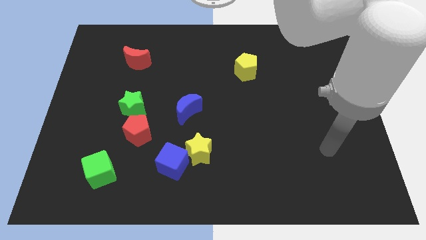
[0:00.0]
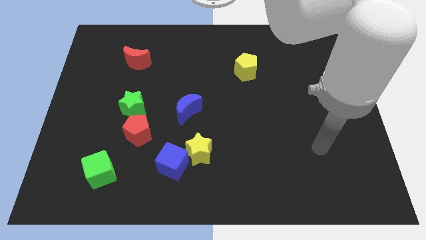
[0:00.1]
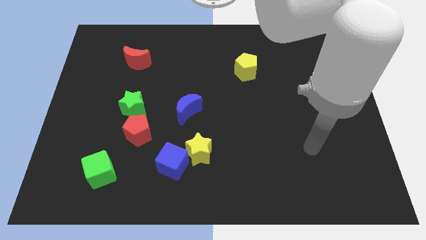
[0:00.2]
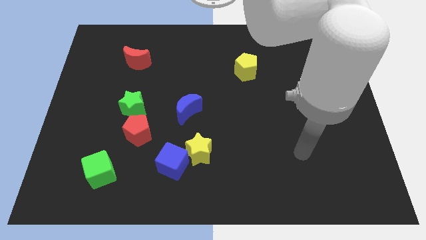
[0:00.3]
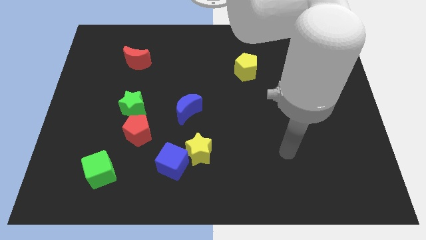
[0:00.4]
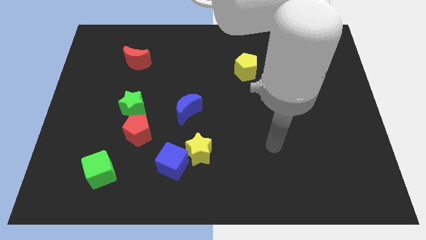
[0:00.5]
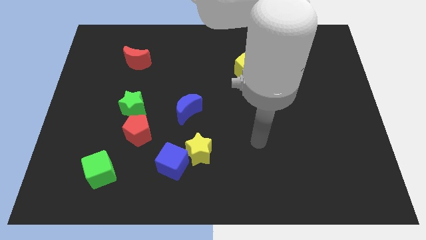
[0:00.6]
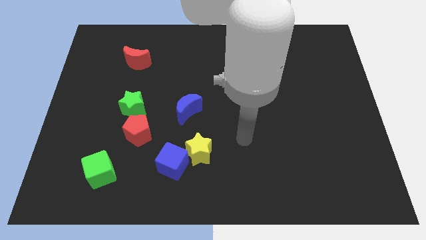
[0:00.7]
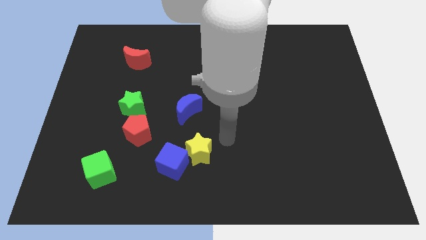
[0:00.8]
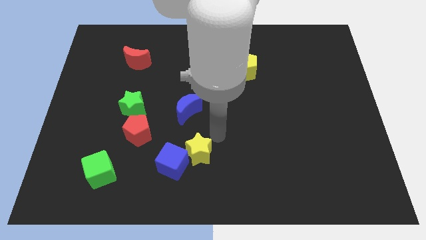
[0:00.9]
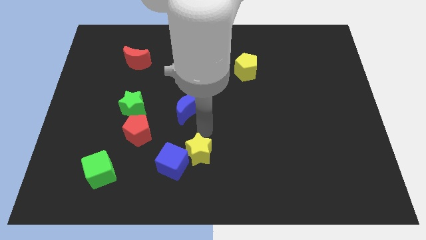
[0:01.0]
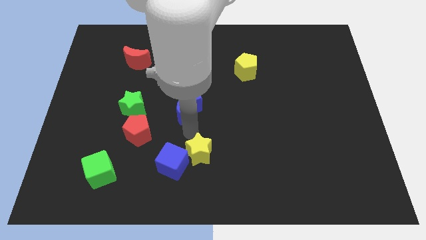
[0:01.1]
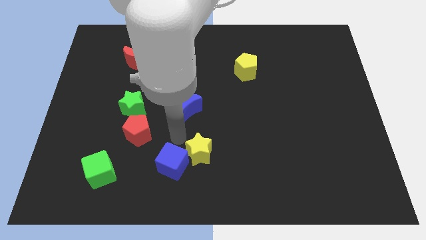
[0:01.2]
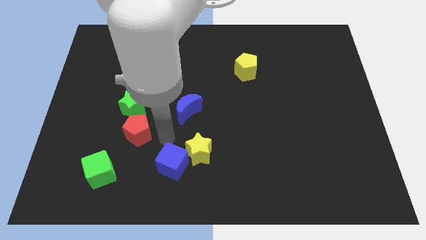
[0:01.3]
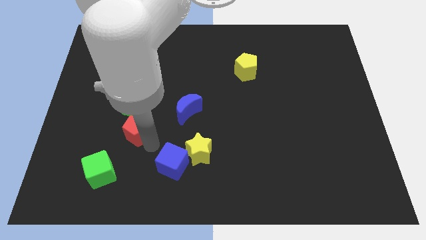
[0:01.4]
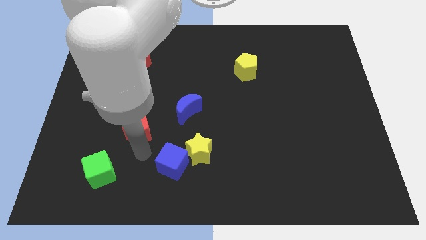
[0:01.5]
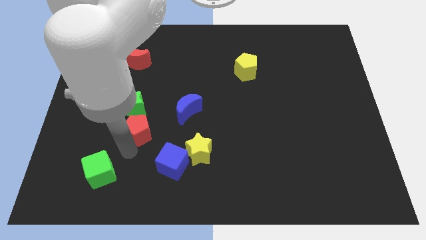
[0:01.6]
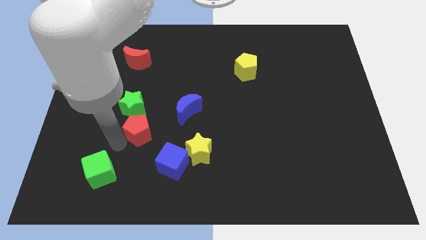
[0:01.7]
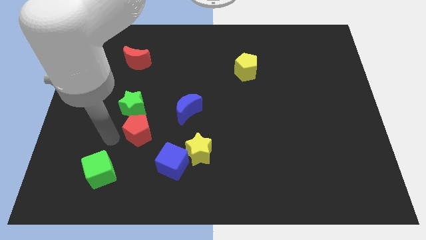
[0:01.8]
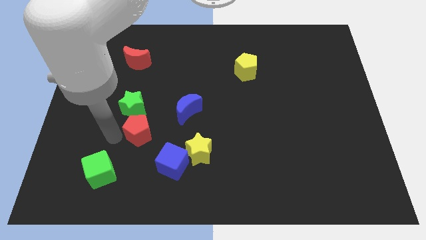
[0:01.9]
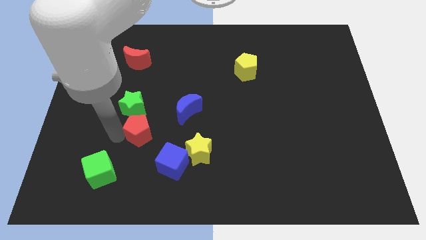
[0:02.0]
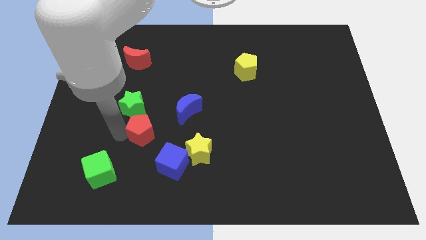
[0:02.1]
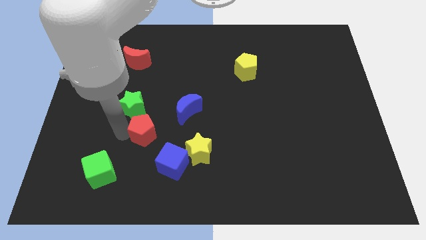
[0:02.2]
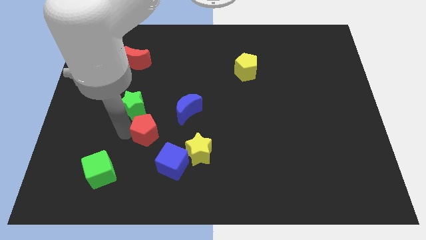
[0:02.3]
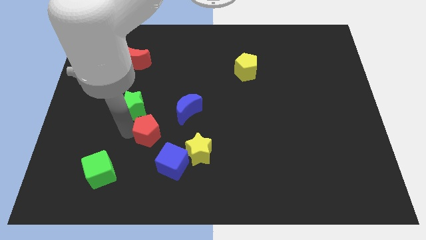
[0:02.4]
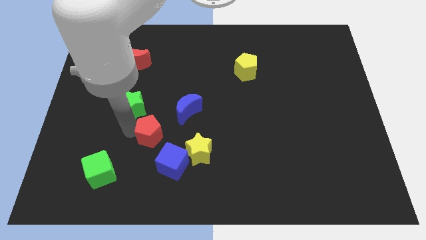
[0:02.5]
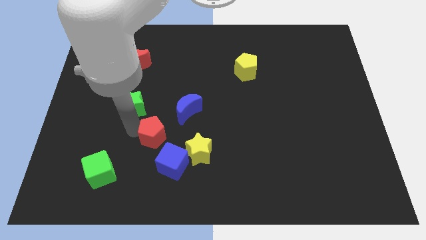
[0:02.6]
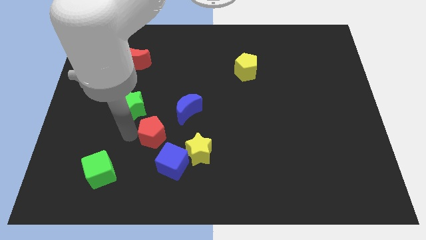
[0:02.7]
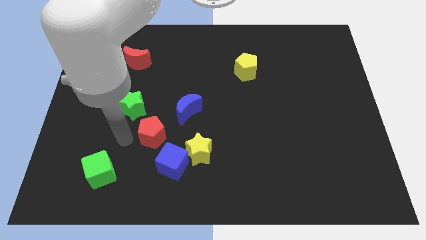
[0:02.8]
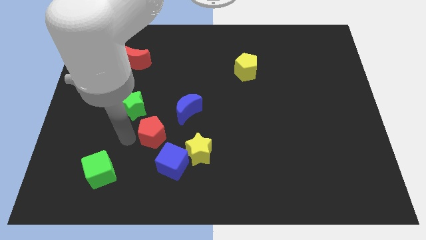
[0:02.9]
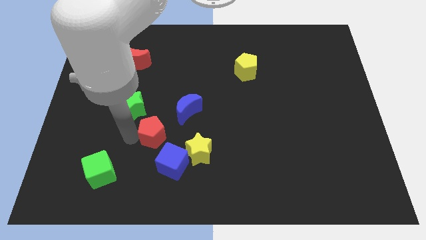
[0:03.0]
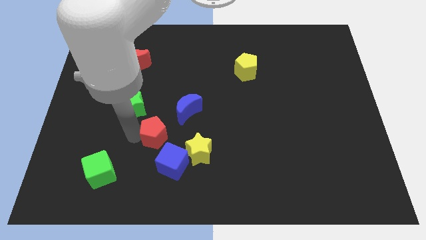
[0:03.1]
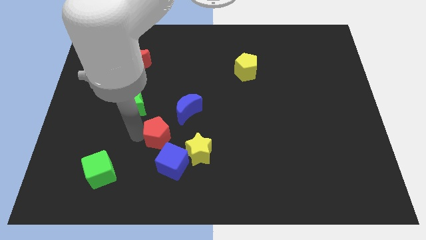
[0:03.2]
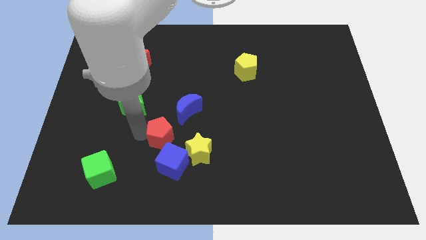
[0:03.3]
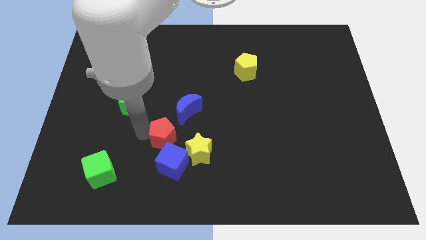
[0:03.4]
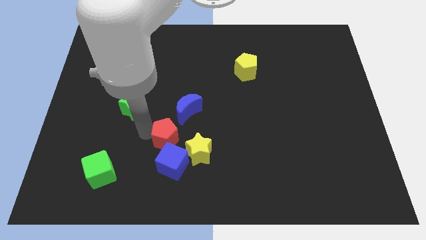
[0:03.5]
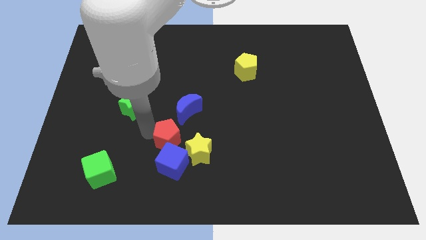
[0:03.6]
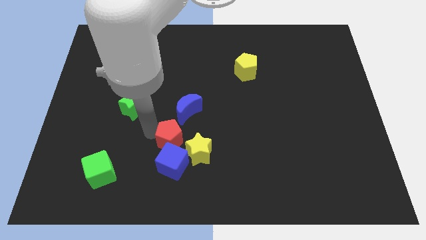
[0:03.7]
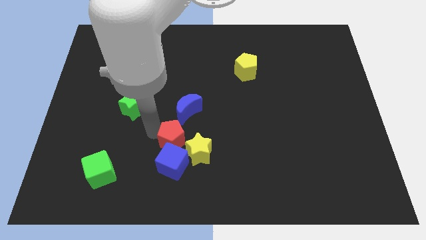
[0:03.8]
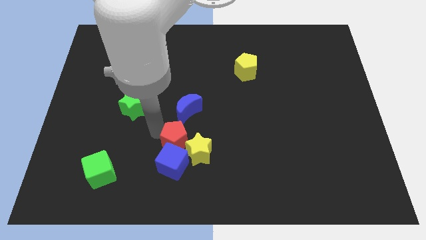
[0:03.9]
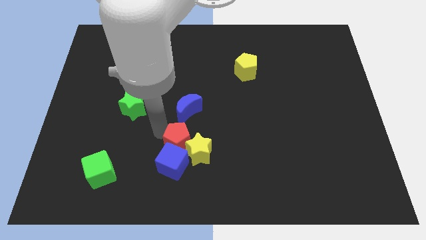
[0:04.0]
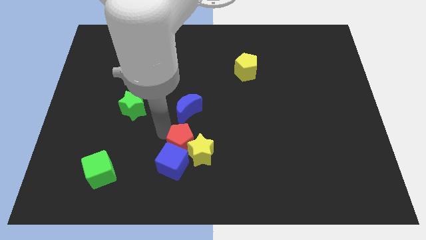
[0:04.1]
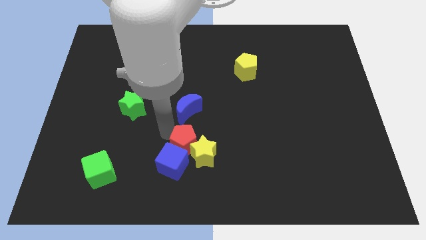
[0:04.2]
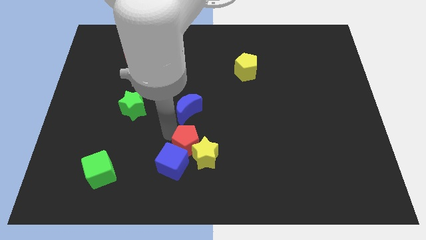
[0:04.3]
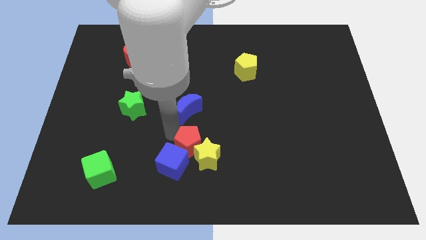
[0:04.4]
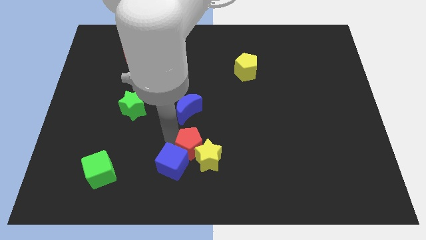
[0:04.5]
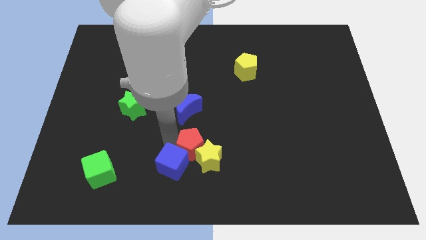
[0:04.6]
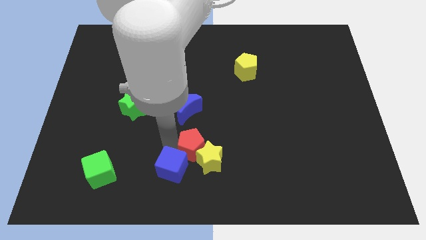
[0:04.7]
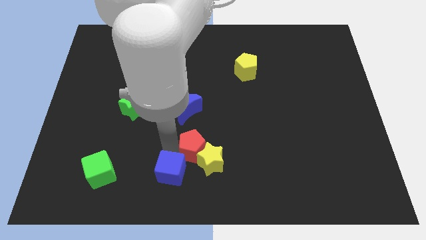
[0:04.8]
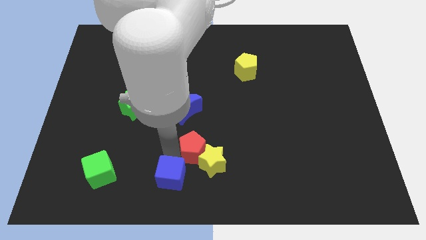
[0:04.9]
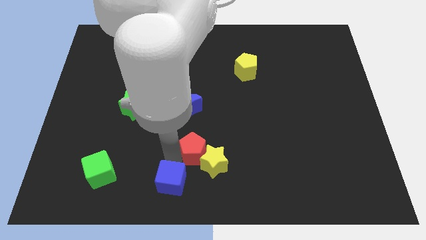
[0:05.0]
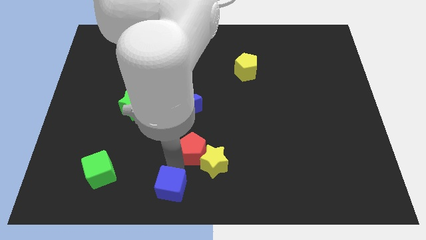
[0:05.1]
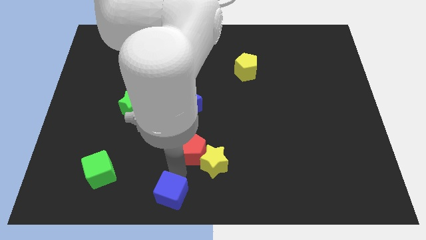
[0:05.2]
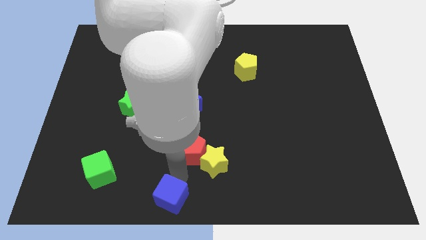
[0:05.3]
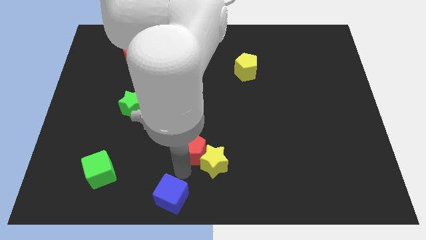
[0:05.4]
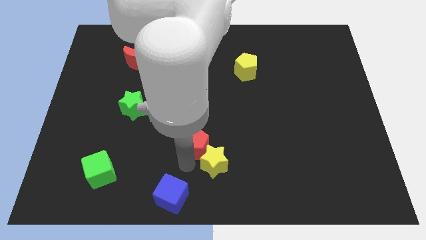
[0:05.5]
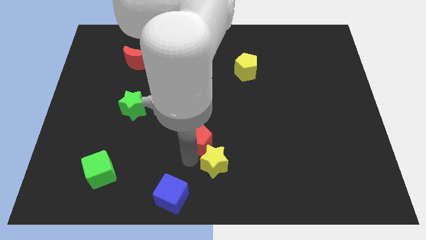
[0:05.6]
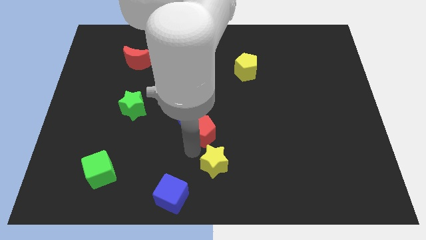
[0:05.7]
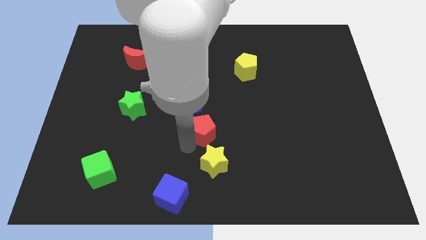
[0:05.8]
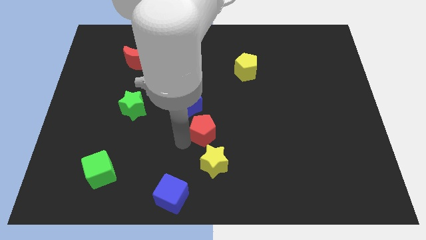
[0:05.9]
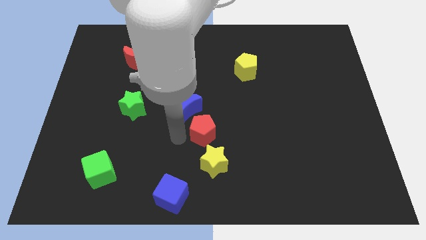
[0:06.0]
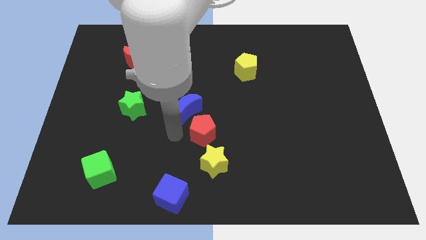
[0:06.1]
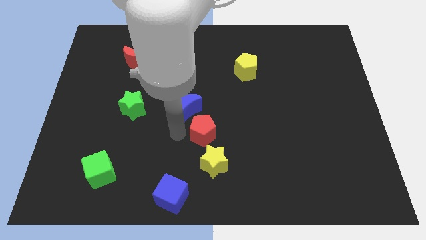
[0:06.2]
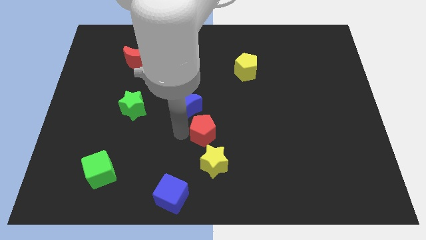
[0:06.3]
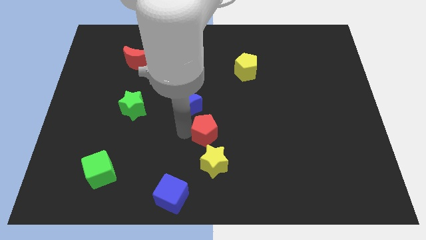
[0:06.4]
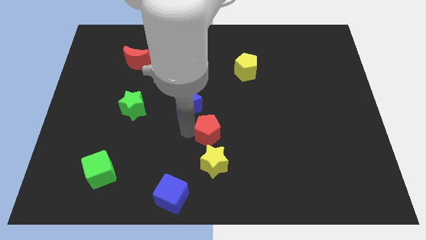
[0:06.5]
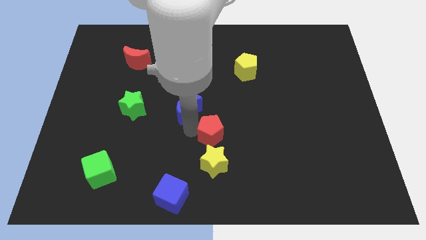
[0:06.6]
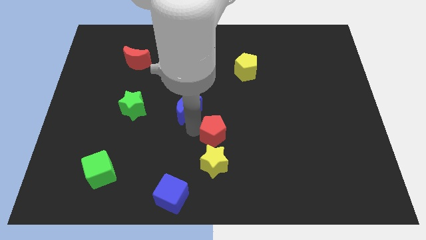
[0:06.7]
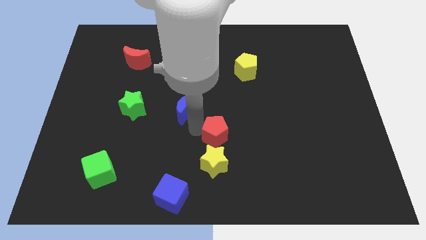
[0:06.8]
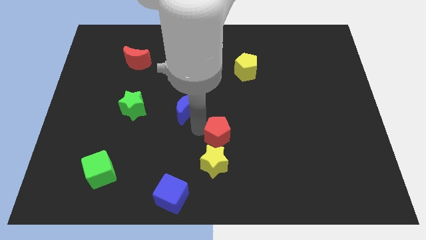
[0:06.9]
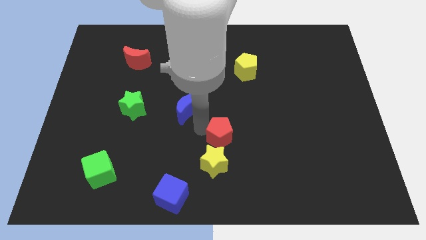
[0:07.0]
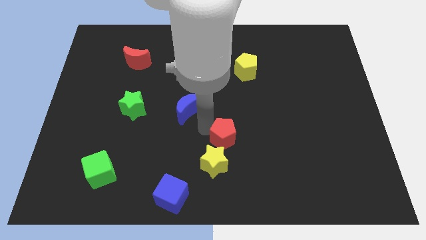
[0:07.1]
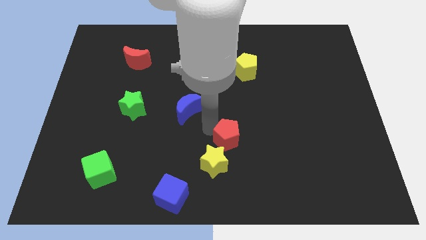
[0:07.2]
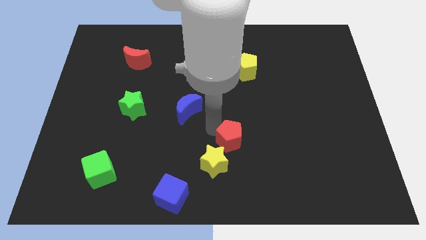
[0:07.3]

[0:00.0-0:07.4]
slide the red pentagon right

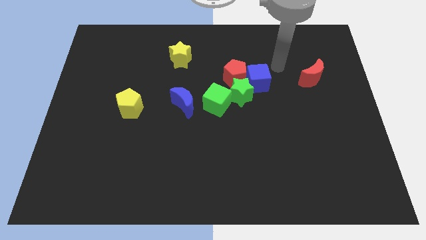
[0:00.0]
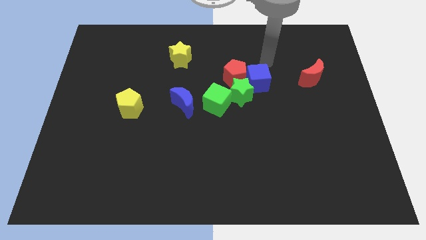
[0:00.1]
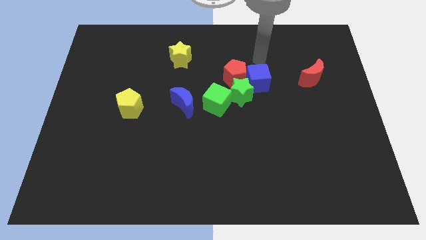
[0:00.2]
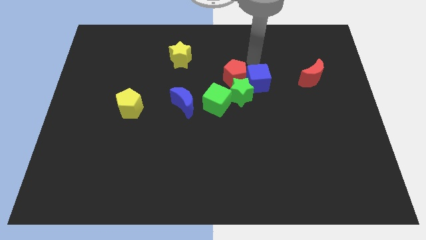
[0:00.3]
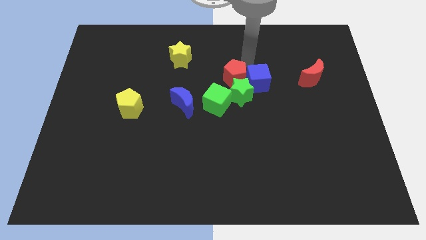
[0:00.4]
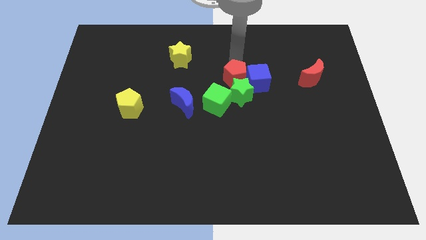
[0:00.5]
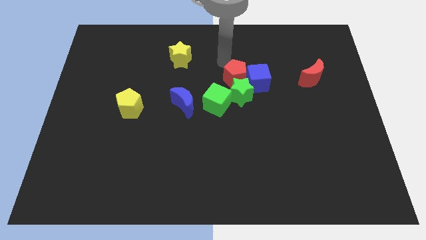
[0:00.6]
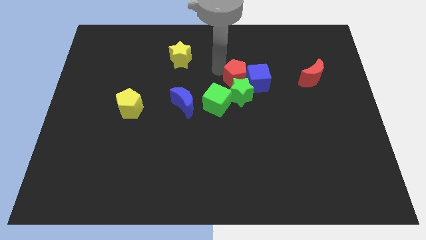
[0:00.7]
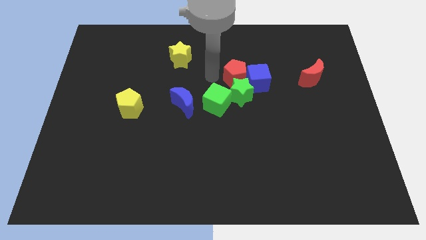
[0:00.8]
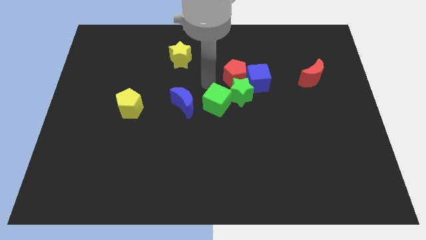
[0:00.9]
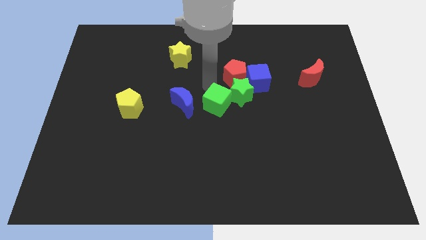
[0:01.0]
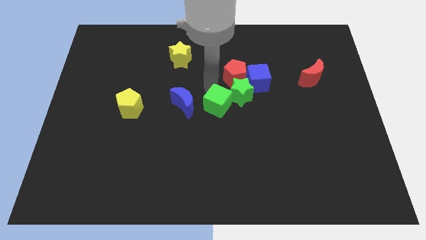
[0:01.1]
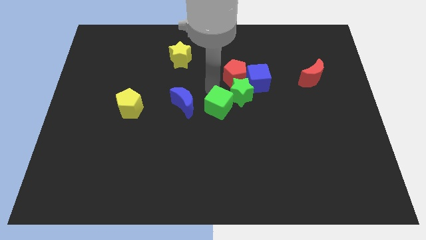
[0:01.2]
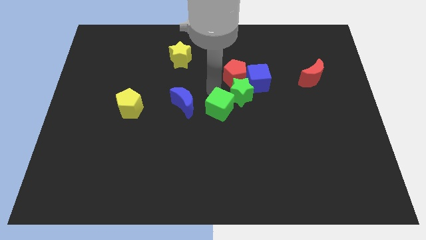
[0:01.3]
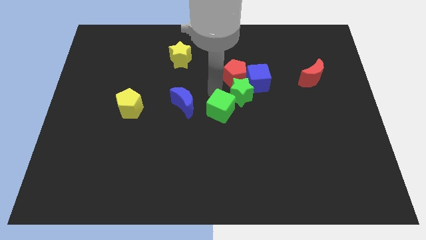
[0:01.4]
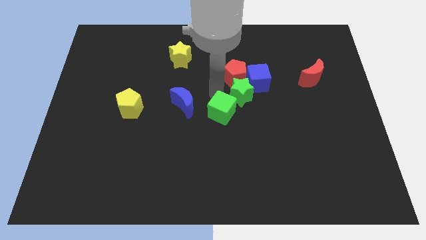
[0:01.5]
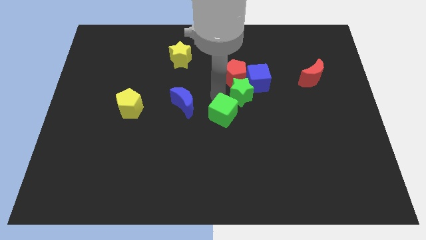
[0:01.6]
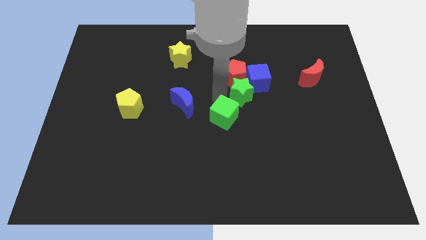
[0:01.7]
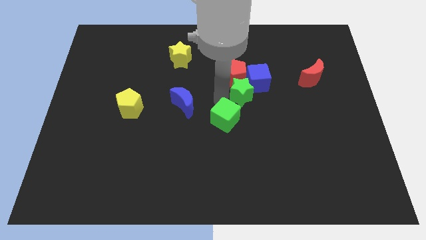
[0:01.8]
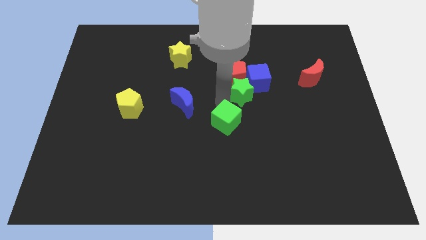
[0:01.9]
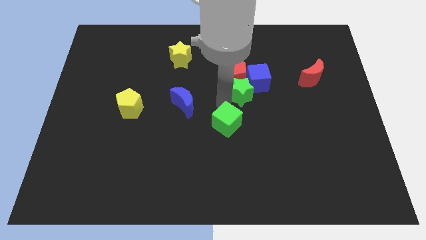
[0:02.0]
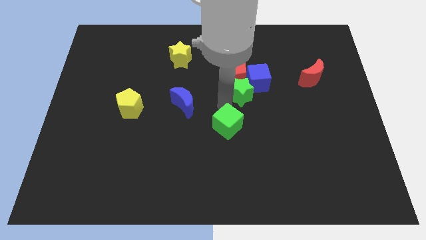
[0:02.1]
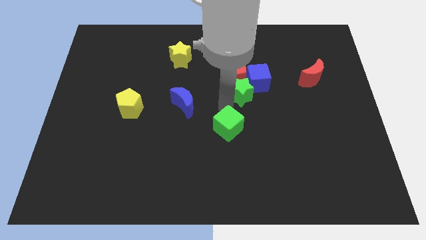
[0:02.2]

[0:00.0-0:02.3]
push the green cube somewhat down
